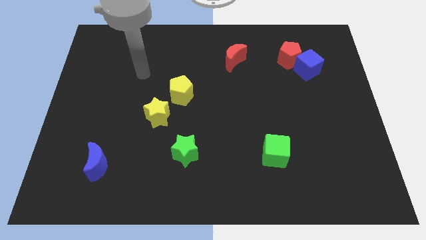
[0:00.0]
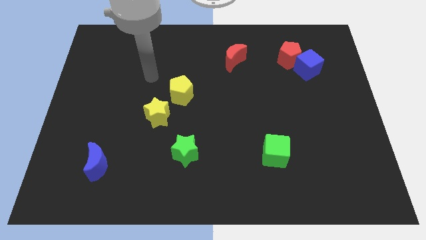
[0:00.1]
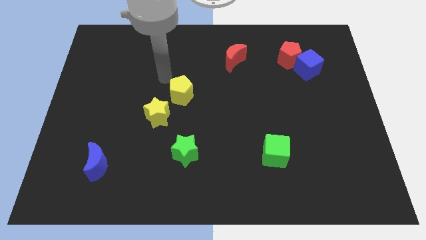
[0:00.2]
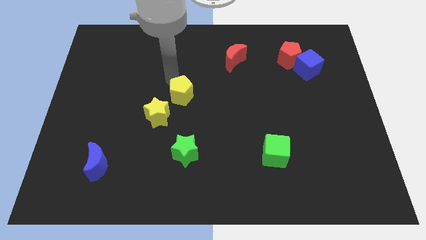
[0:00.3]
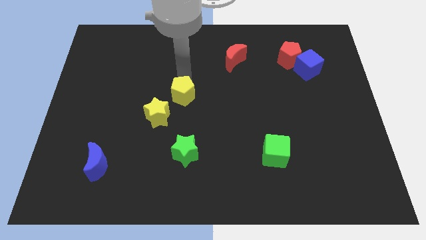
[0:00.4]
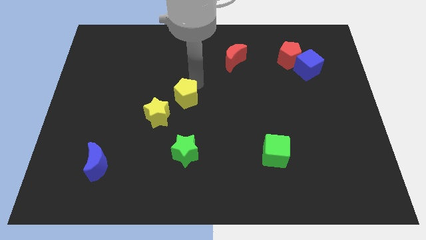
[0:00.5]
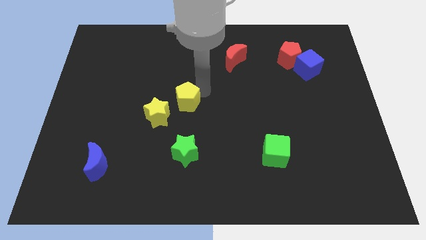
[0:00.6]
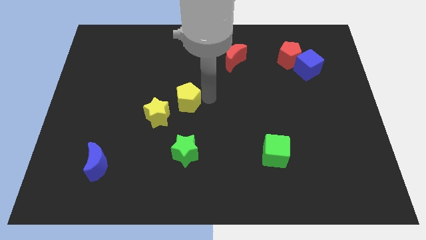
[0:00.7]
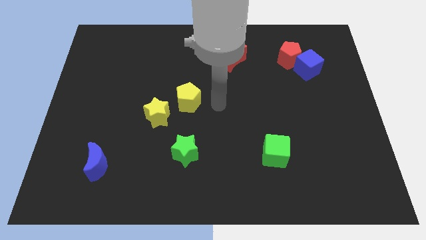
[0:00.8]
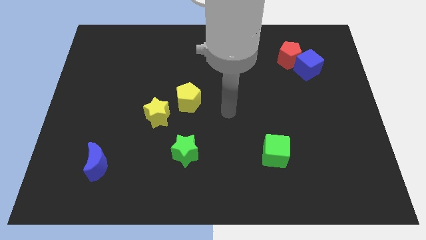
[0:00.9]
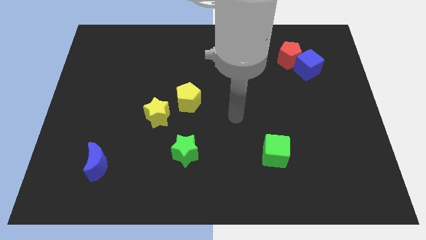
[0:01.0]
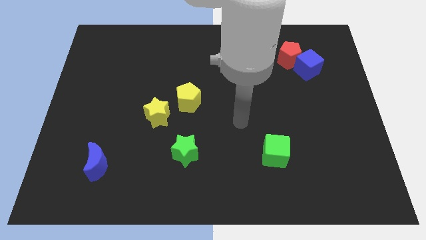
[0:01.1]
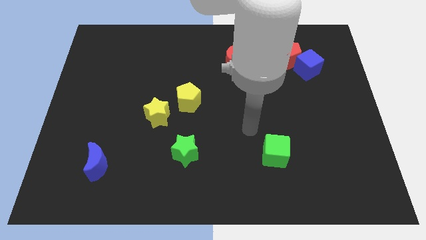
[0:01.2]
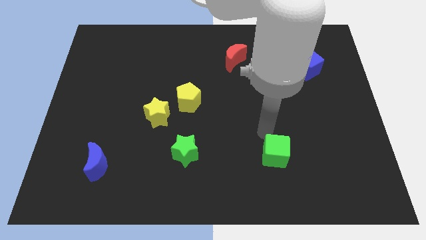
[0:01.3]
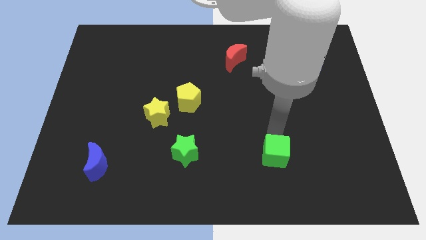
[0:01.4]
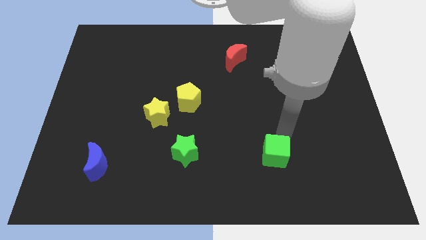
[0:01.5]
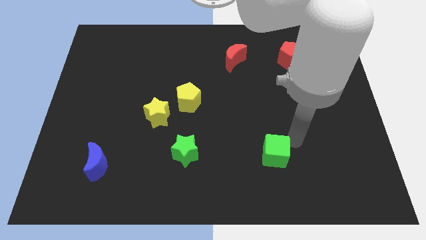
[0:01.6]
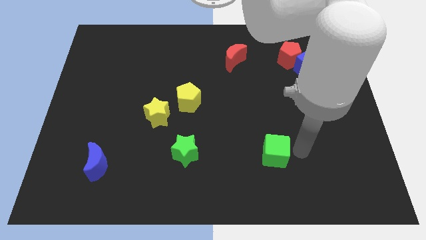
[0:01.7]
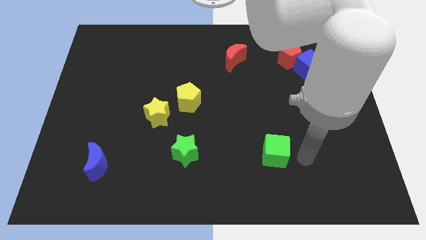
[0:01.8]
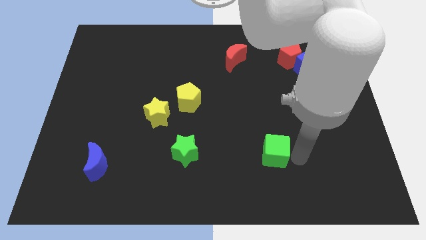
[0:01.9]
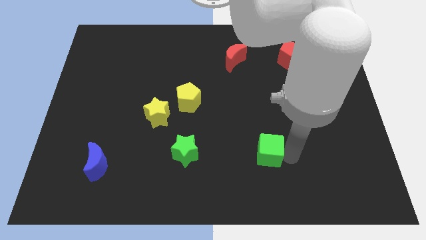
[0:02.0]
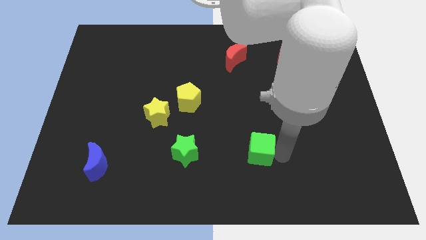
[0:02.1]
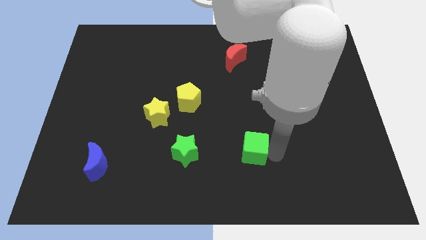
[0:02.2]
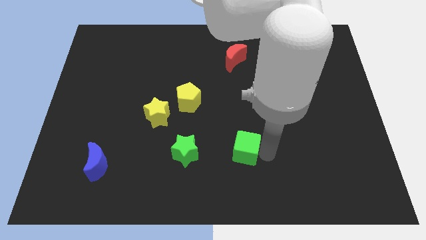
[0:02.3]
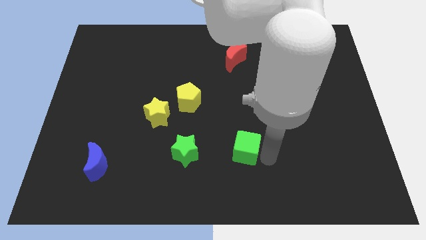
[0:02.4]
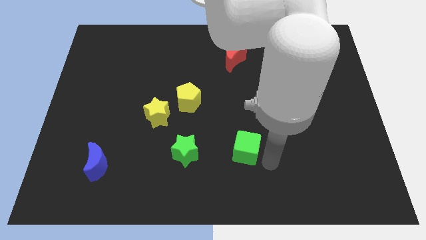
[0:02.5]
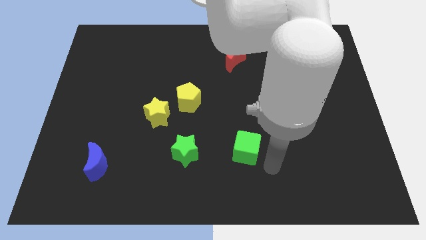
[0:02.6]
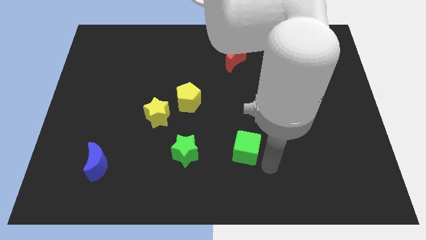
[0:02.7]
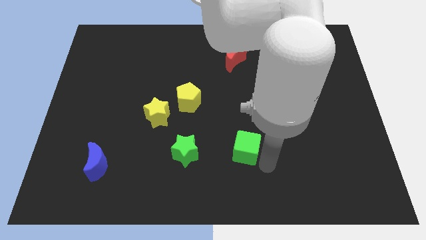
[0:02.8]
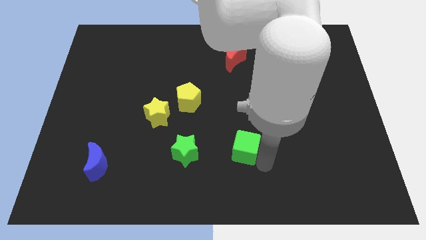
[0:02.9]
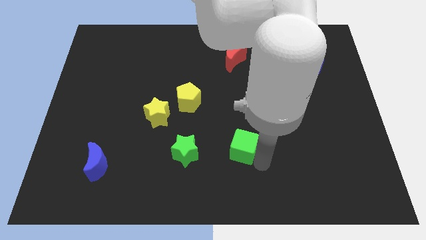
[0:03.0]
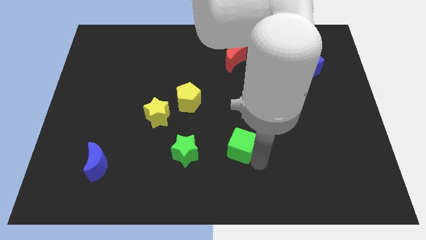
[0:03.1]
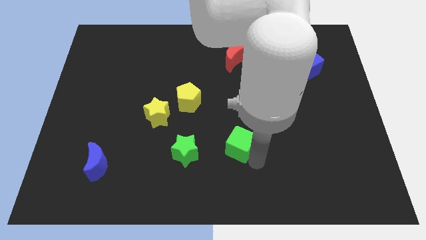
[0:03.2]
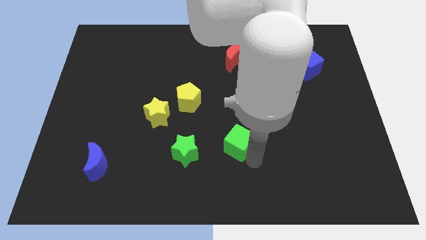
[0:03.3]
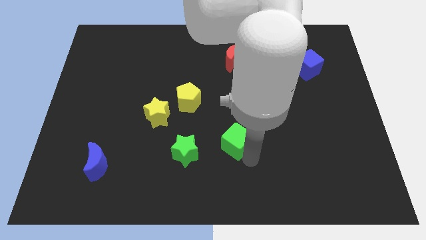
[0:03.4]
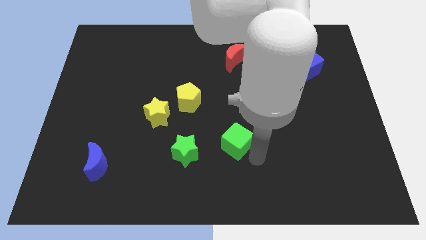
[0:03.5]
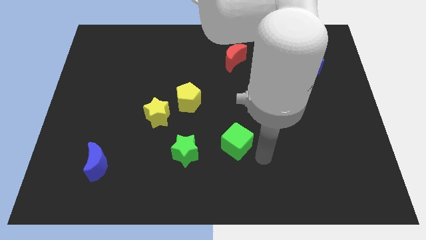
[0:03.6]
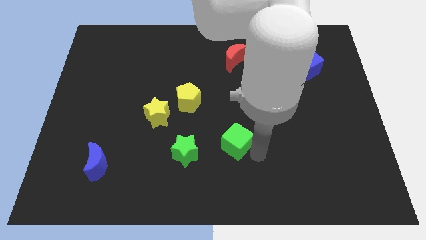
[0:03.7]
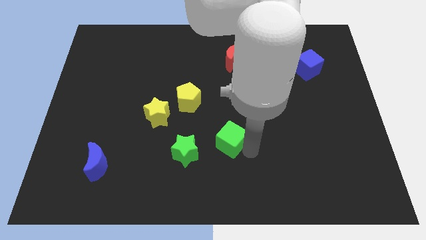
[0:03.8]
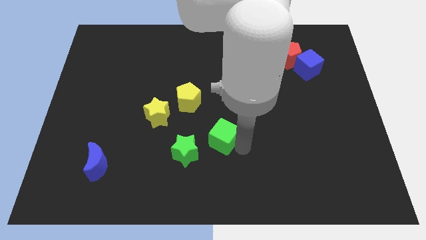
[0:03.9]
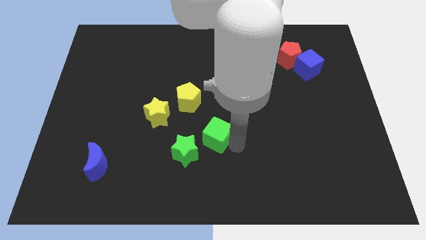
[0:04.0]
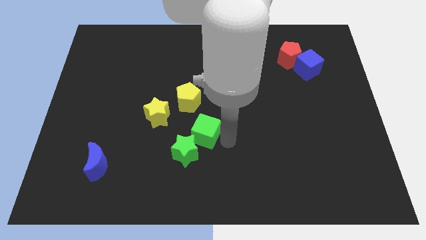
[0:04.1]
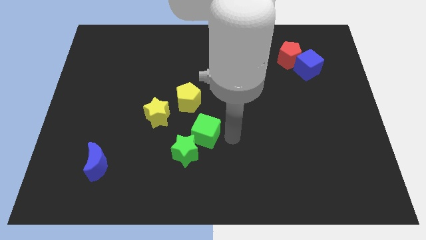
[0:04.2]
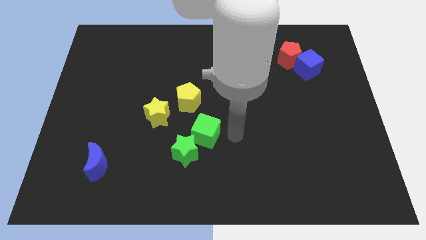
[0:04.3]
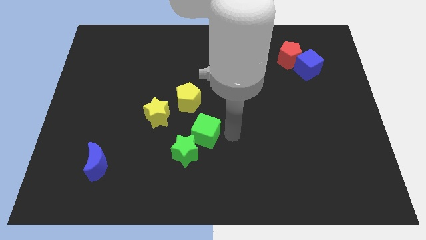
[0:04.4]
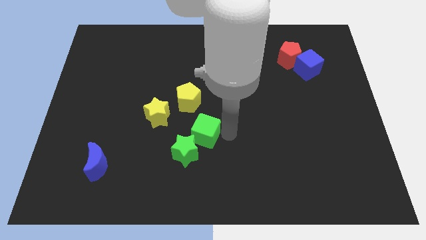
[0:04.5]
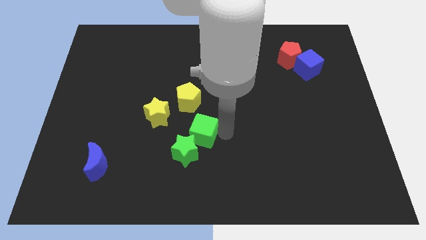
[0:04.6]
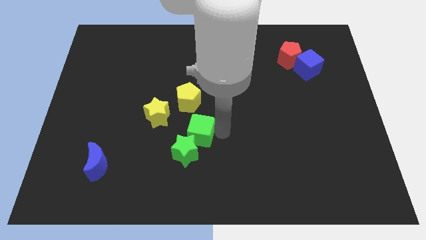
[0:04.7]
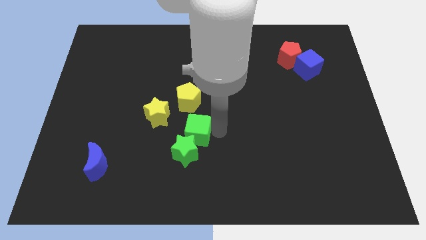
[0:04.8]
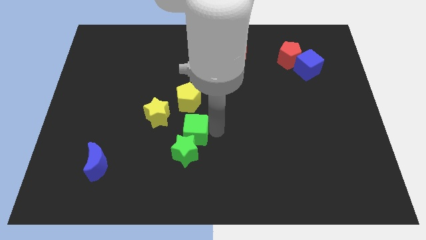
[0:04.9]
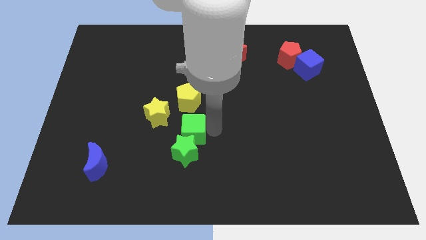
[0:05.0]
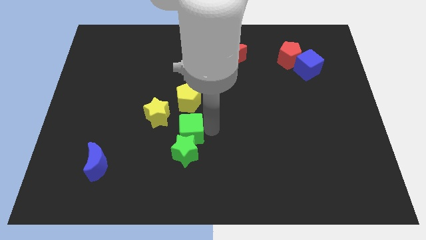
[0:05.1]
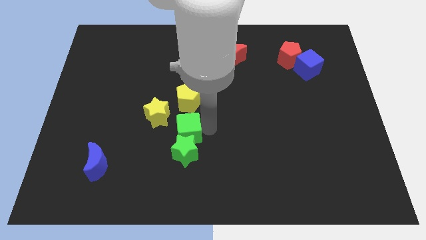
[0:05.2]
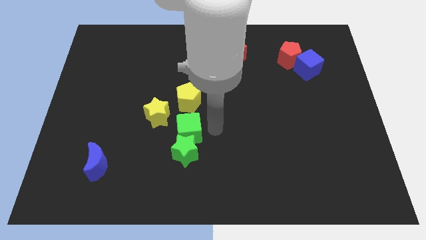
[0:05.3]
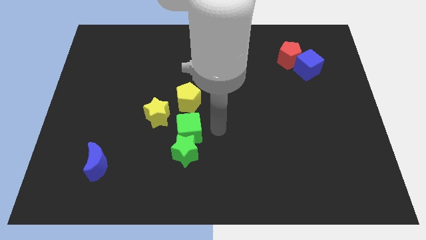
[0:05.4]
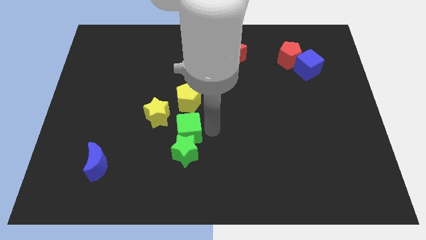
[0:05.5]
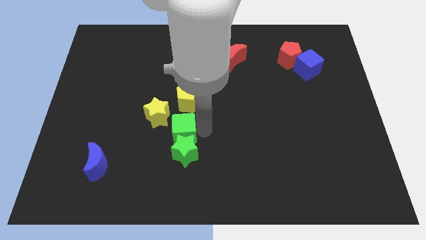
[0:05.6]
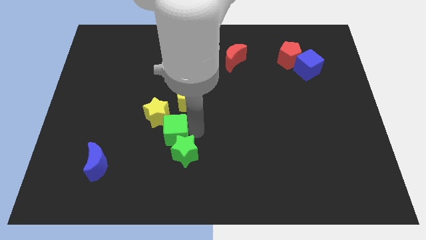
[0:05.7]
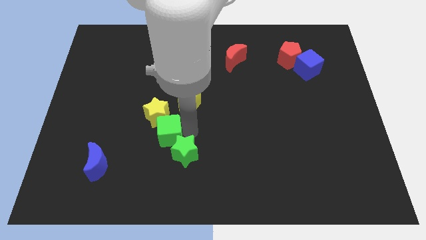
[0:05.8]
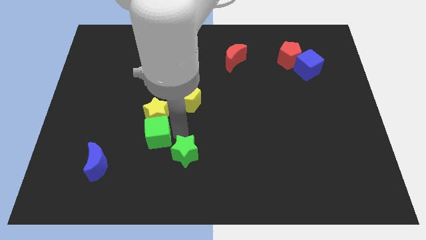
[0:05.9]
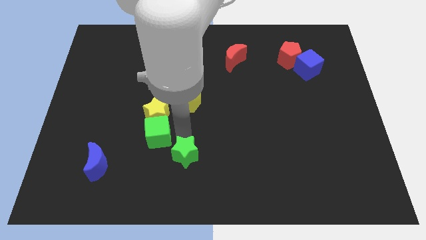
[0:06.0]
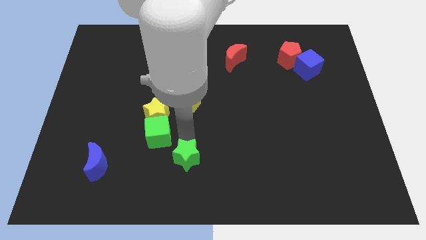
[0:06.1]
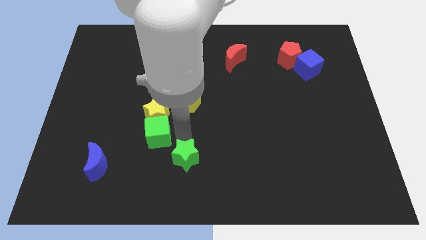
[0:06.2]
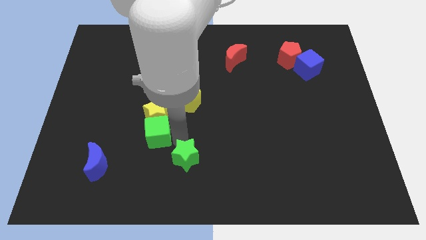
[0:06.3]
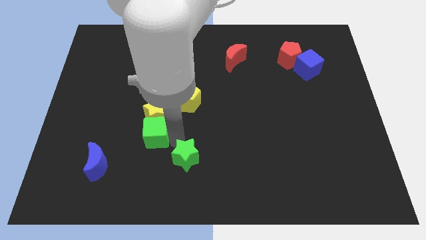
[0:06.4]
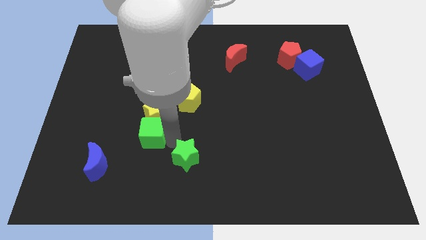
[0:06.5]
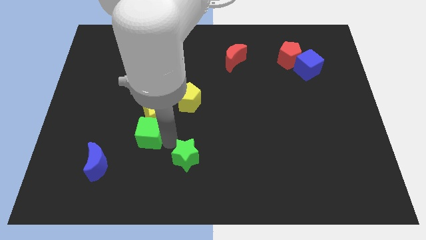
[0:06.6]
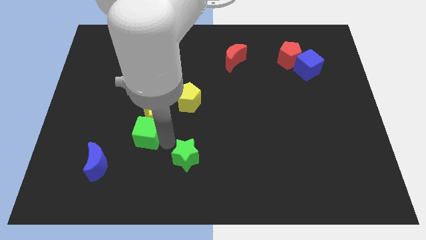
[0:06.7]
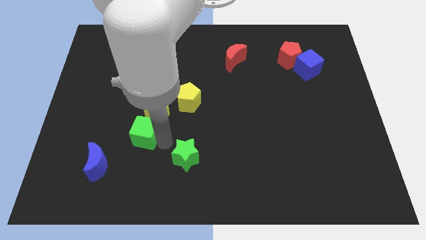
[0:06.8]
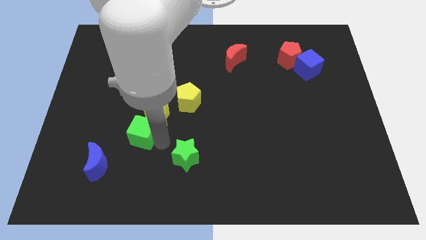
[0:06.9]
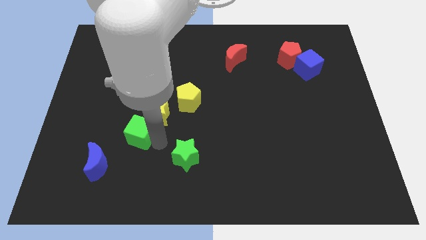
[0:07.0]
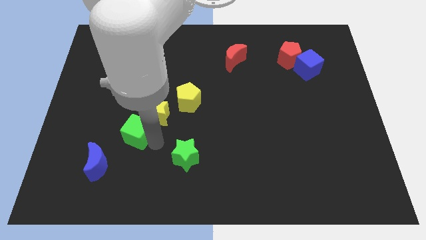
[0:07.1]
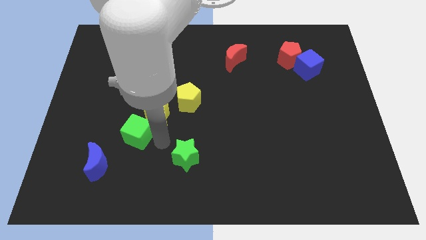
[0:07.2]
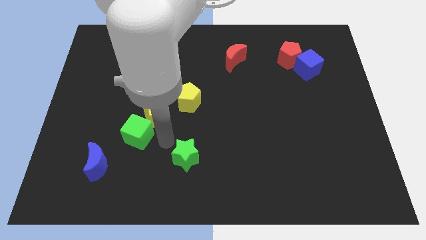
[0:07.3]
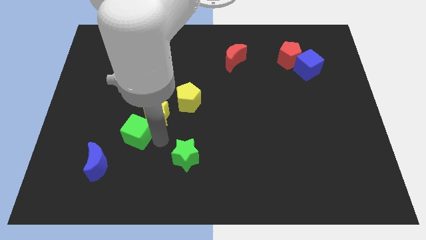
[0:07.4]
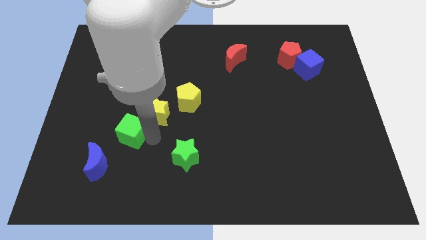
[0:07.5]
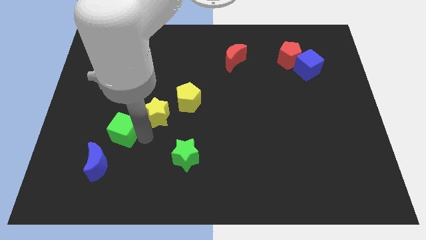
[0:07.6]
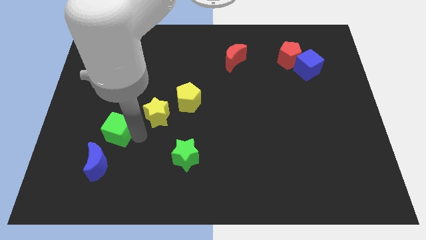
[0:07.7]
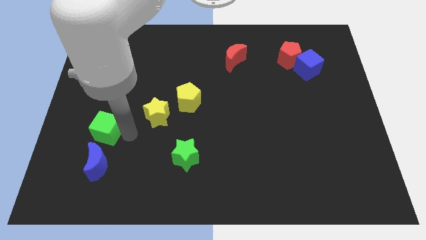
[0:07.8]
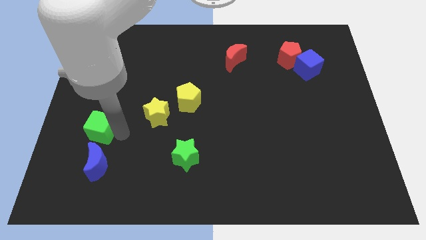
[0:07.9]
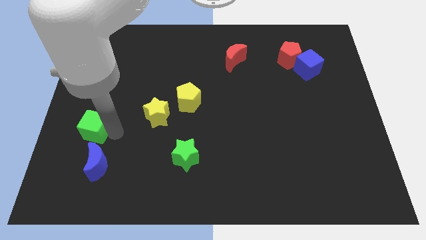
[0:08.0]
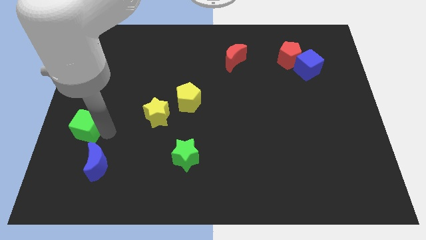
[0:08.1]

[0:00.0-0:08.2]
slide the green cube to the left side of the board
